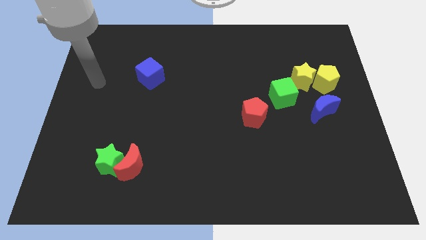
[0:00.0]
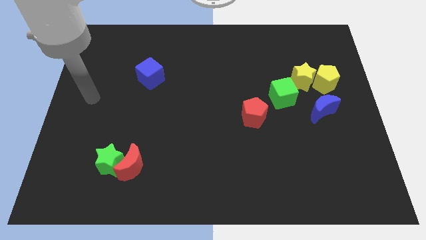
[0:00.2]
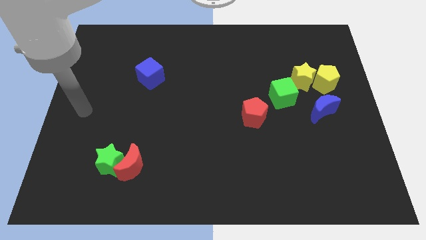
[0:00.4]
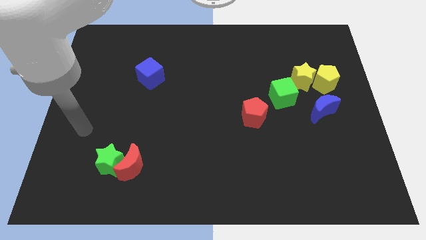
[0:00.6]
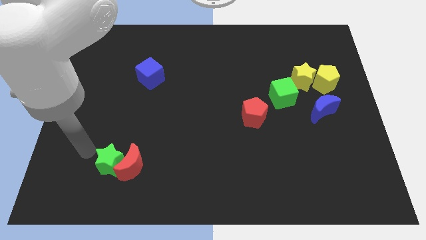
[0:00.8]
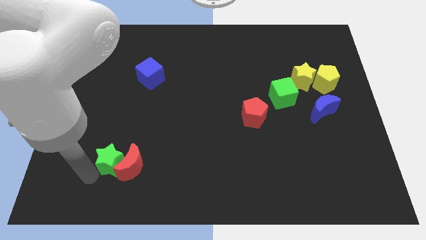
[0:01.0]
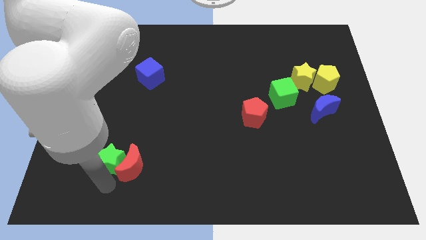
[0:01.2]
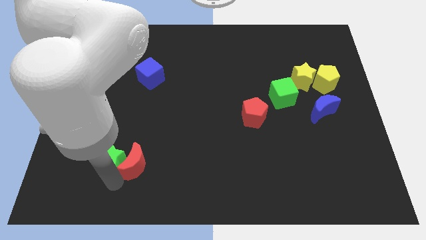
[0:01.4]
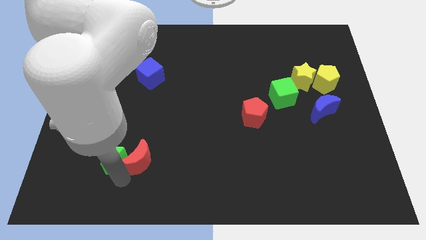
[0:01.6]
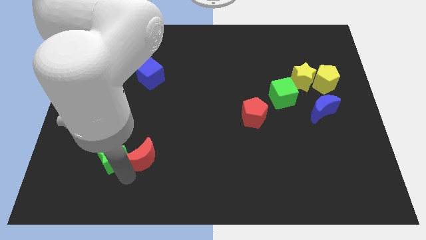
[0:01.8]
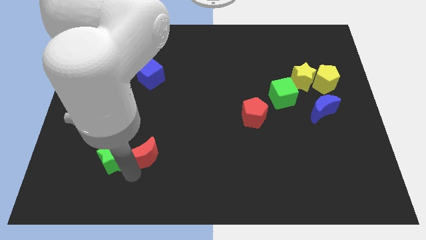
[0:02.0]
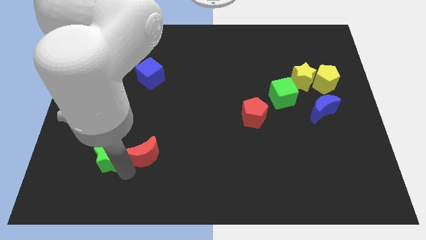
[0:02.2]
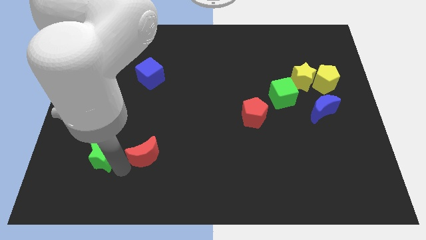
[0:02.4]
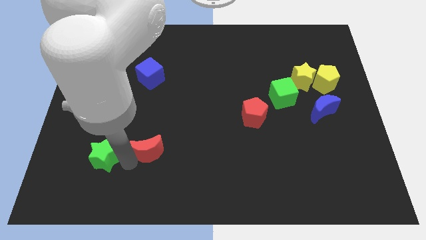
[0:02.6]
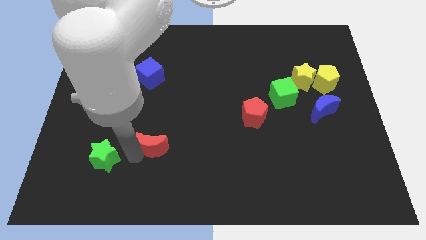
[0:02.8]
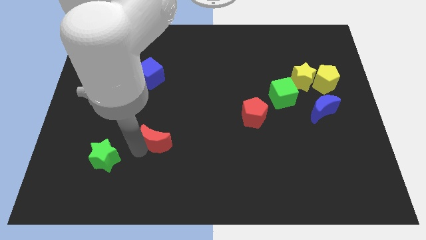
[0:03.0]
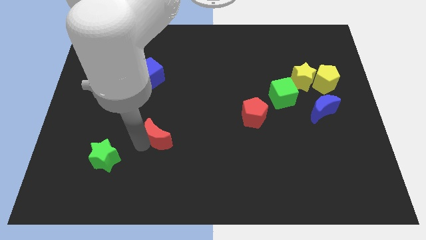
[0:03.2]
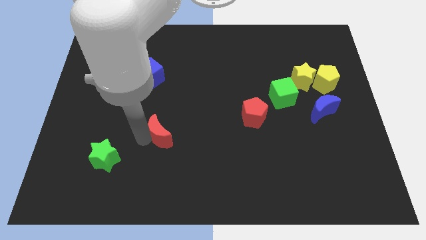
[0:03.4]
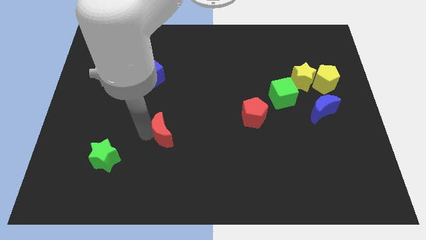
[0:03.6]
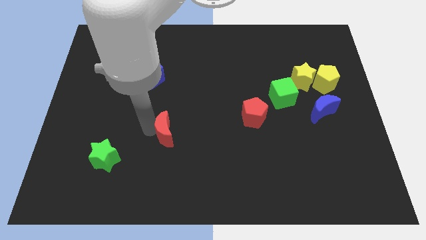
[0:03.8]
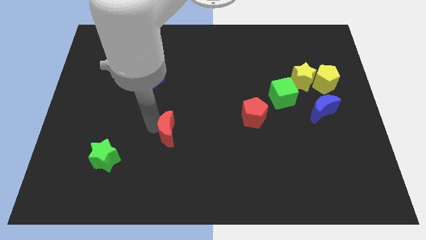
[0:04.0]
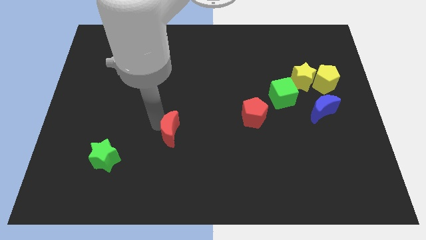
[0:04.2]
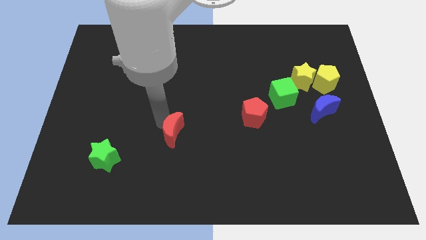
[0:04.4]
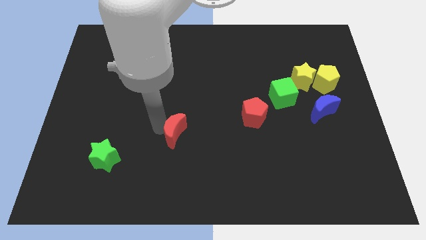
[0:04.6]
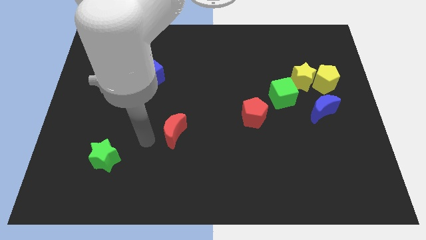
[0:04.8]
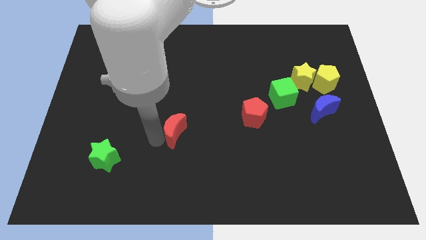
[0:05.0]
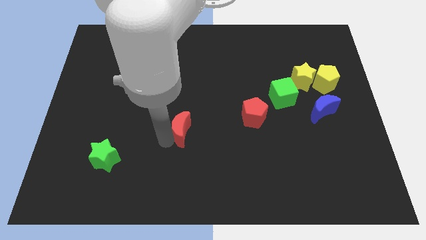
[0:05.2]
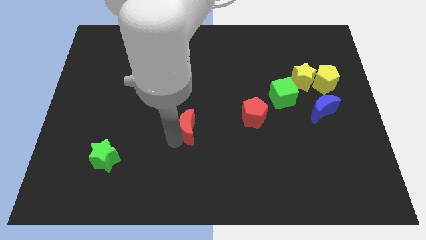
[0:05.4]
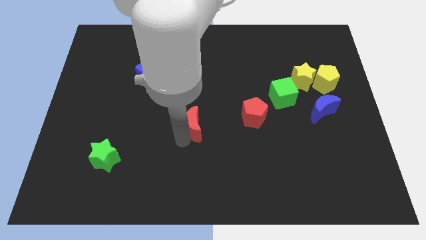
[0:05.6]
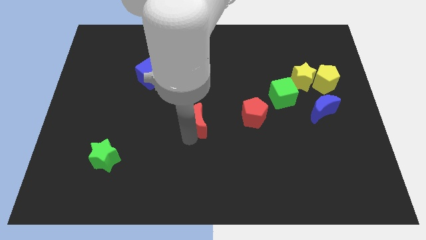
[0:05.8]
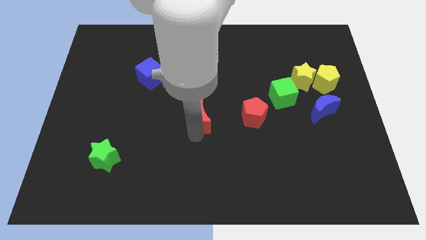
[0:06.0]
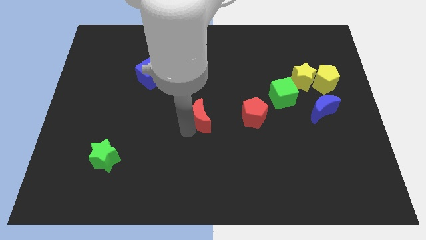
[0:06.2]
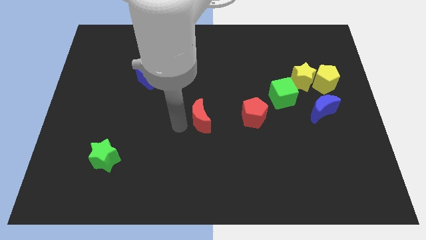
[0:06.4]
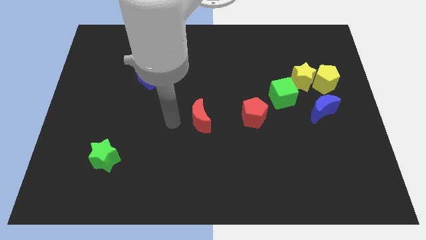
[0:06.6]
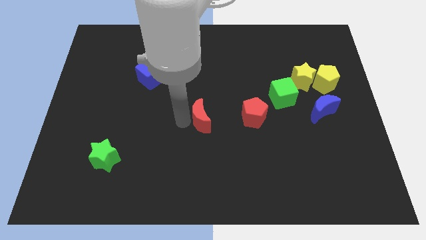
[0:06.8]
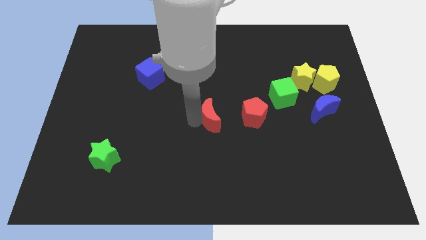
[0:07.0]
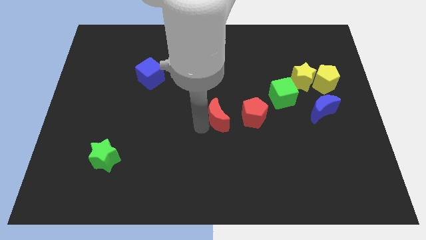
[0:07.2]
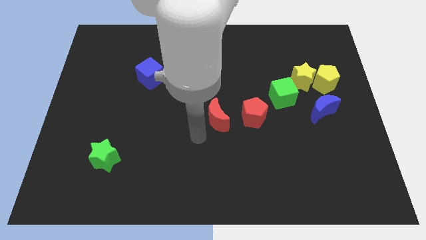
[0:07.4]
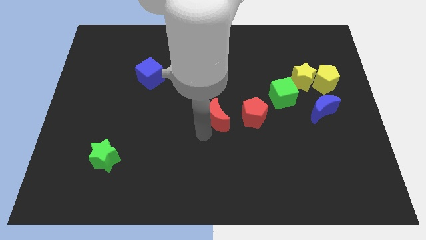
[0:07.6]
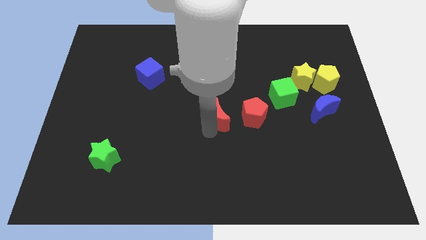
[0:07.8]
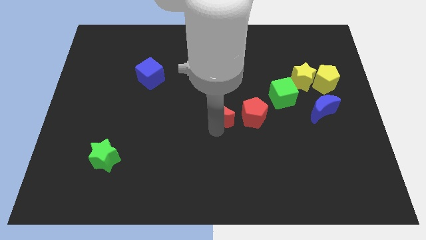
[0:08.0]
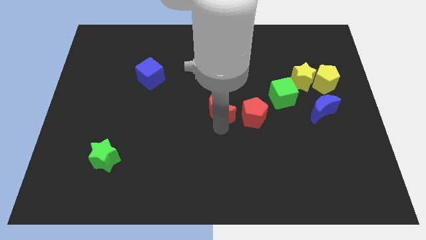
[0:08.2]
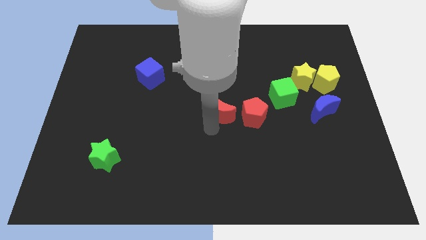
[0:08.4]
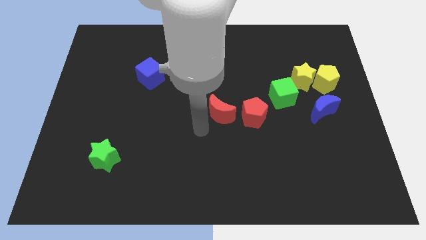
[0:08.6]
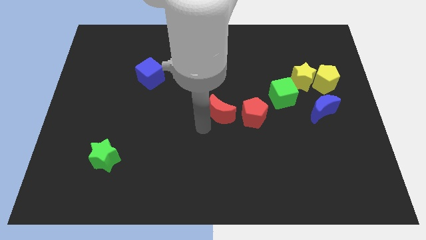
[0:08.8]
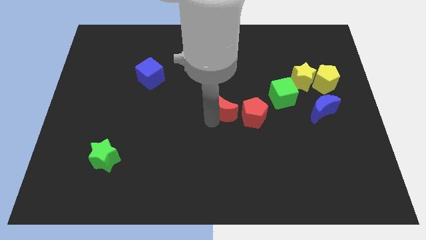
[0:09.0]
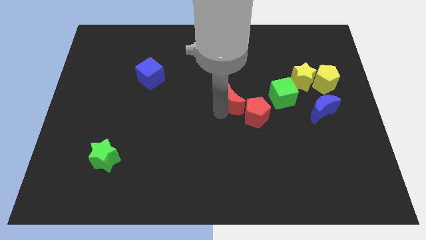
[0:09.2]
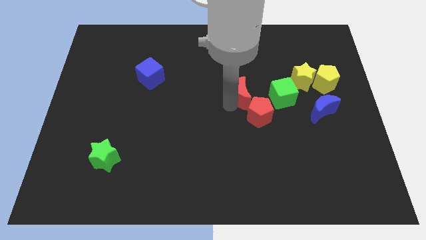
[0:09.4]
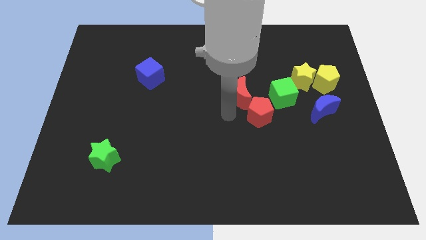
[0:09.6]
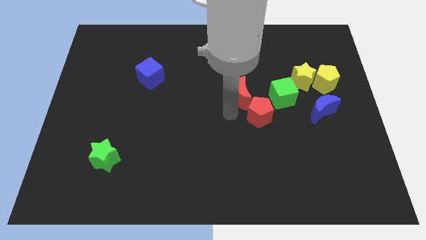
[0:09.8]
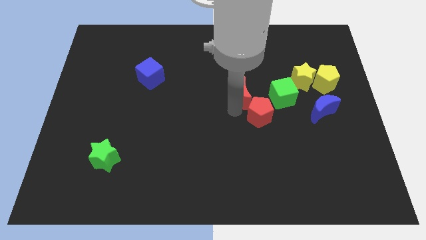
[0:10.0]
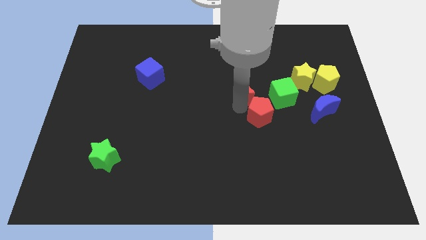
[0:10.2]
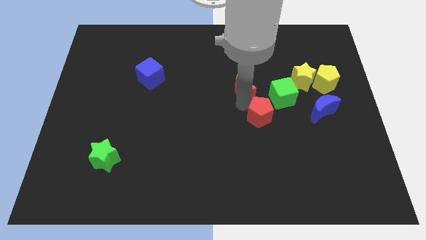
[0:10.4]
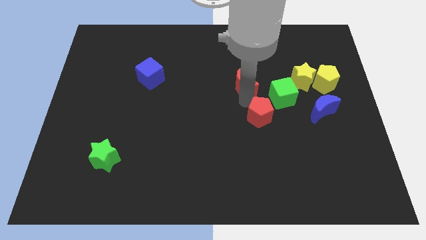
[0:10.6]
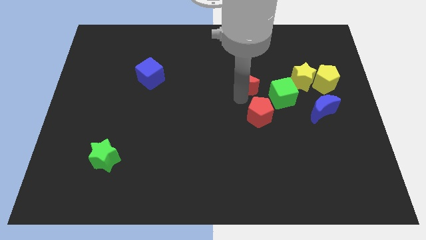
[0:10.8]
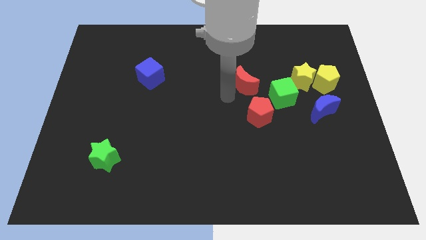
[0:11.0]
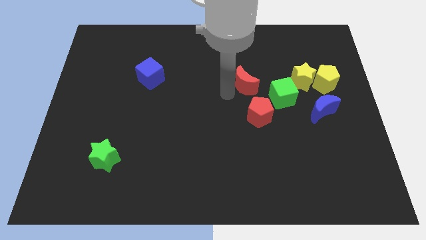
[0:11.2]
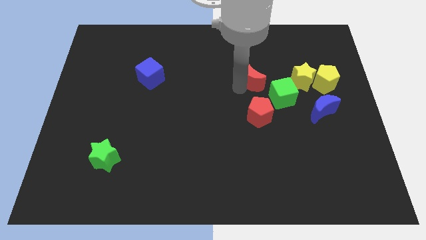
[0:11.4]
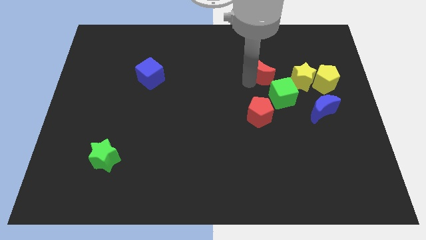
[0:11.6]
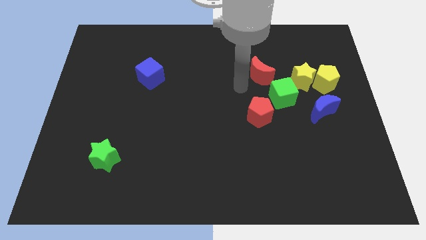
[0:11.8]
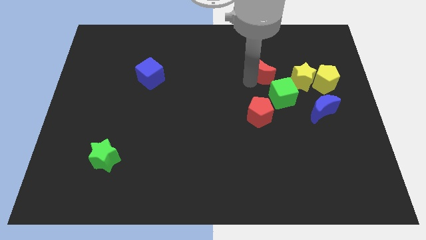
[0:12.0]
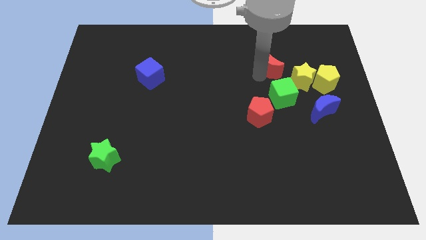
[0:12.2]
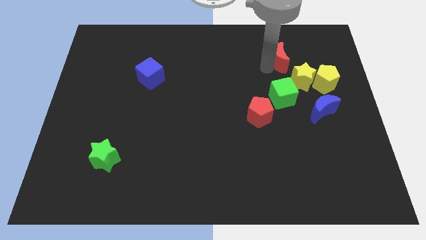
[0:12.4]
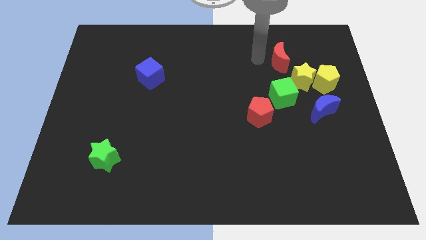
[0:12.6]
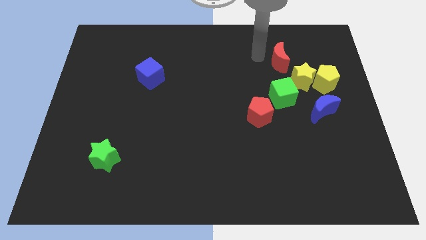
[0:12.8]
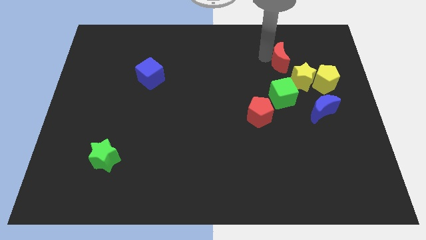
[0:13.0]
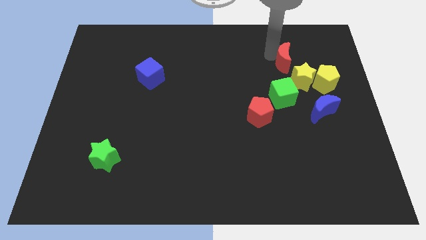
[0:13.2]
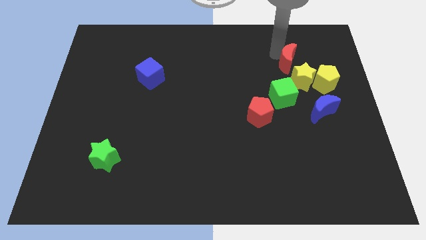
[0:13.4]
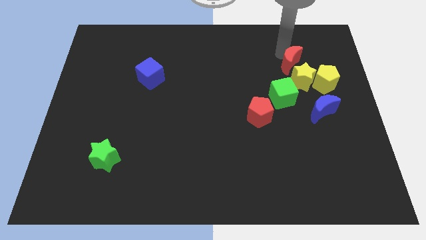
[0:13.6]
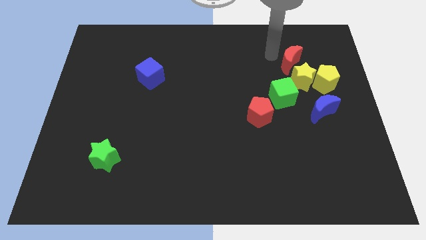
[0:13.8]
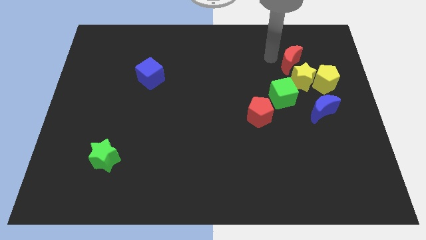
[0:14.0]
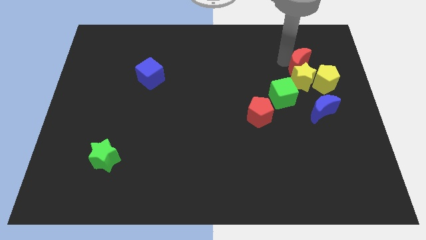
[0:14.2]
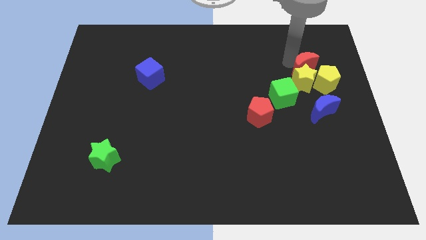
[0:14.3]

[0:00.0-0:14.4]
slide the red moon to the top of the blue moon
